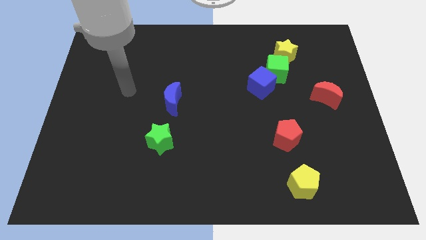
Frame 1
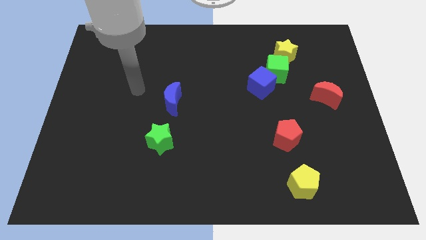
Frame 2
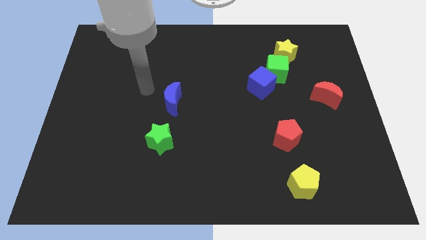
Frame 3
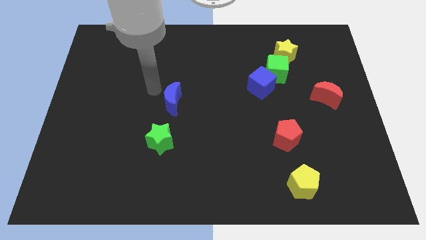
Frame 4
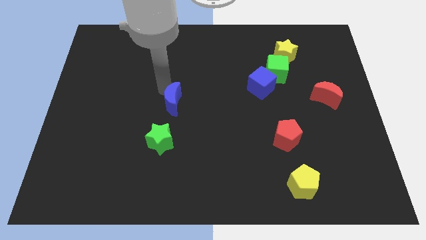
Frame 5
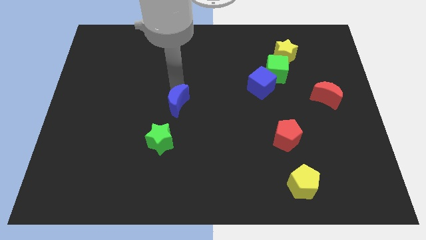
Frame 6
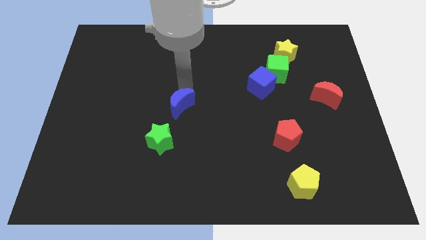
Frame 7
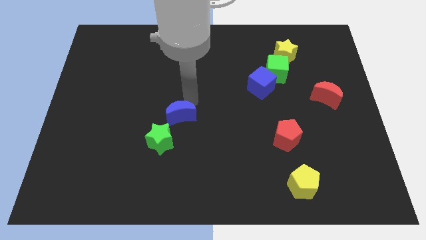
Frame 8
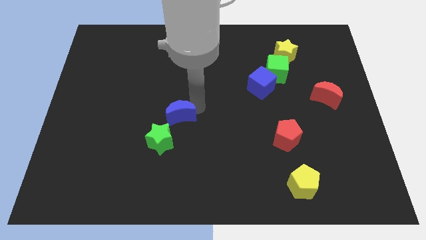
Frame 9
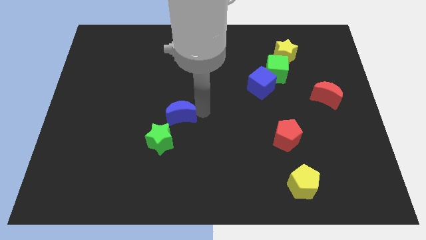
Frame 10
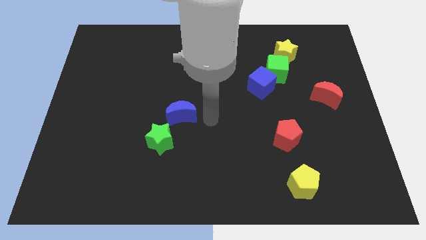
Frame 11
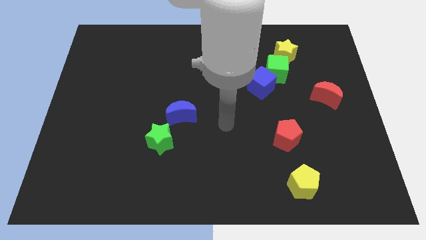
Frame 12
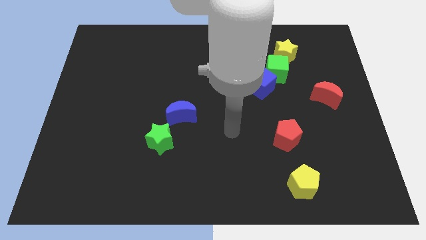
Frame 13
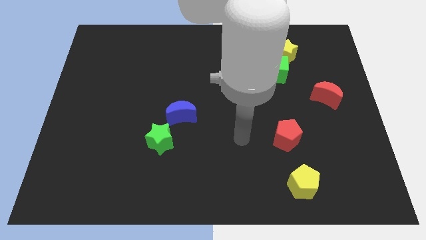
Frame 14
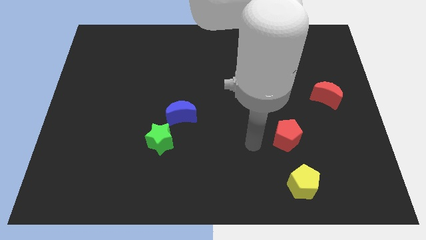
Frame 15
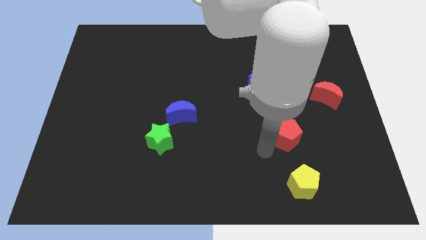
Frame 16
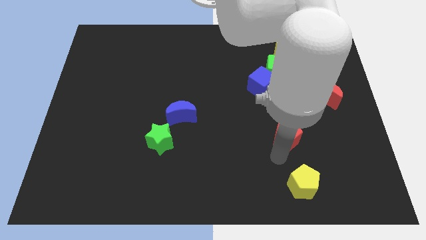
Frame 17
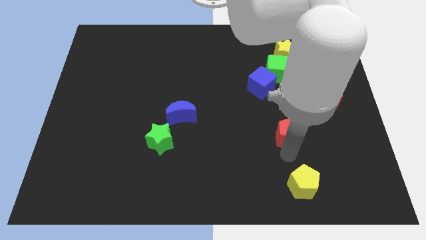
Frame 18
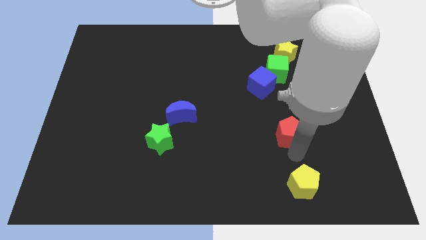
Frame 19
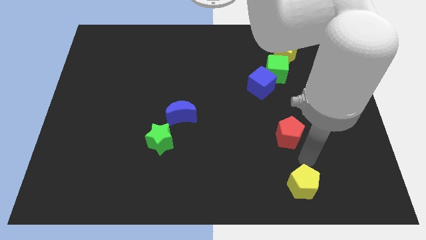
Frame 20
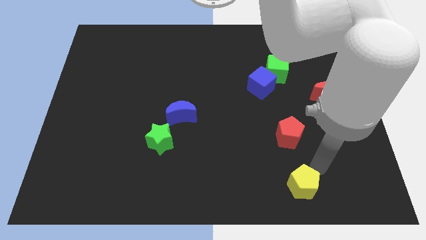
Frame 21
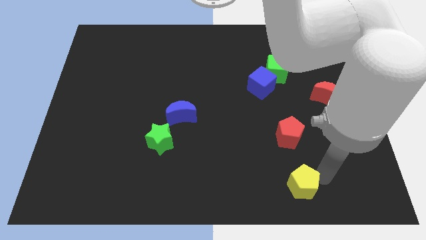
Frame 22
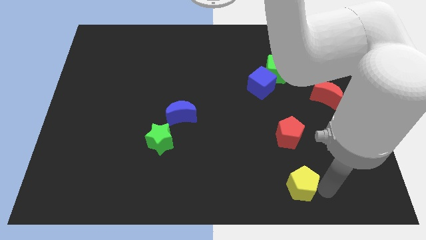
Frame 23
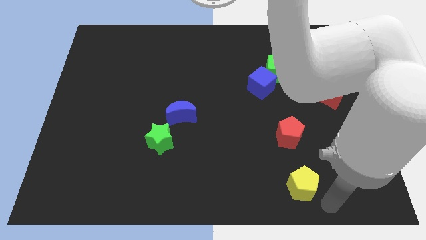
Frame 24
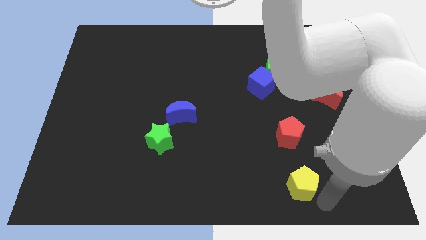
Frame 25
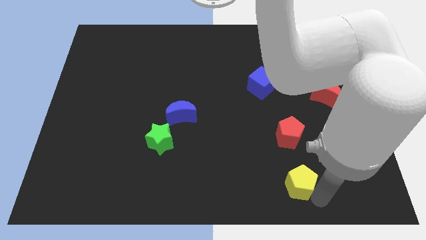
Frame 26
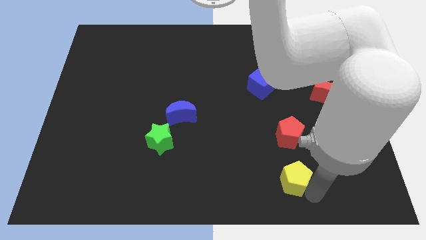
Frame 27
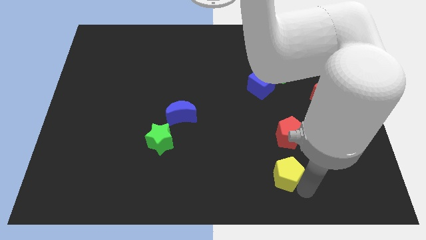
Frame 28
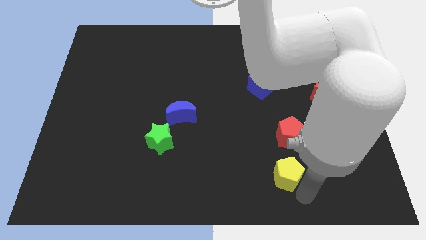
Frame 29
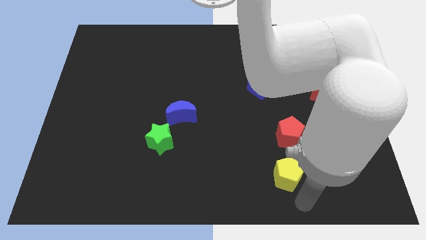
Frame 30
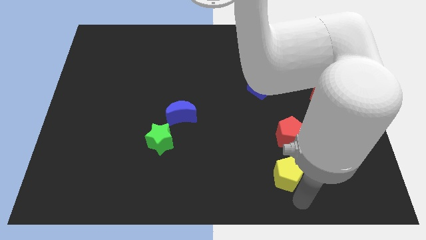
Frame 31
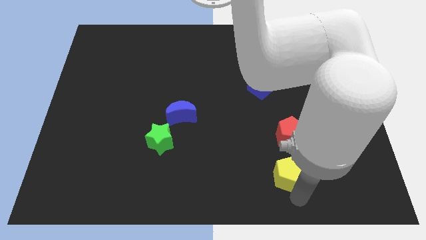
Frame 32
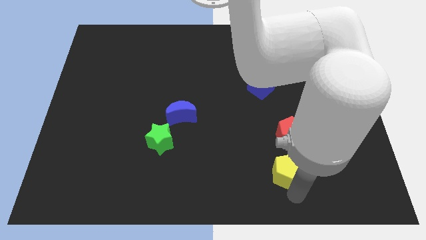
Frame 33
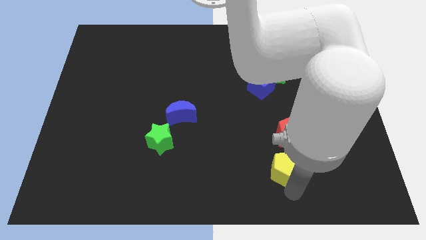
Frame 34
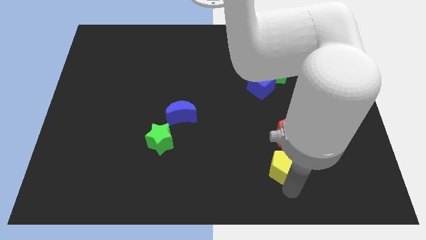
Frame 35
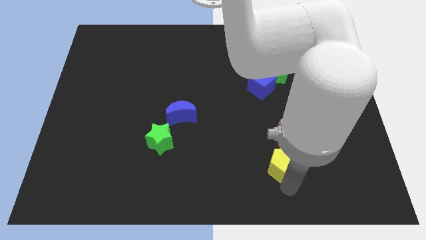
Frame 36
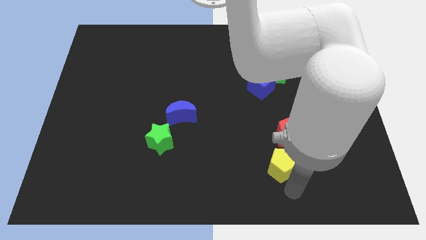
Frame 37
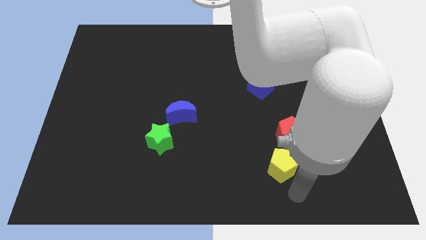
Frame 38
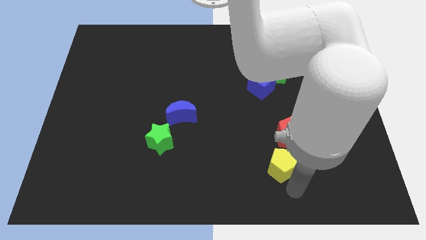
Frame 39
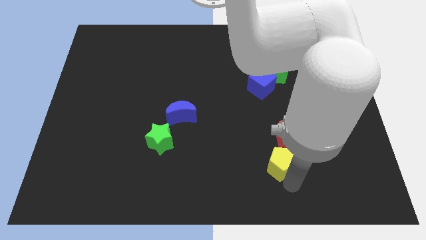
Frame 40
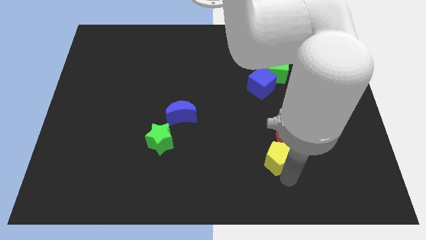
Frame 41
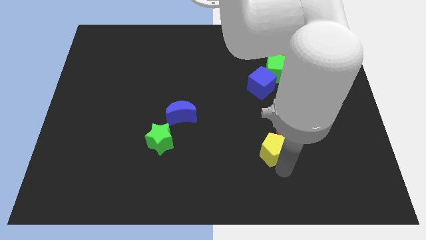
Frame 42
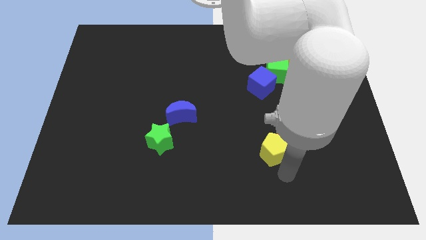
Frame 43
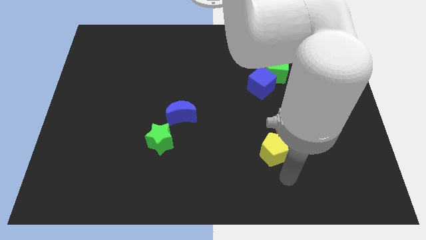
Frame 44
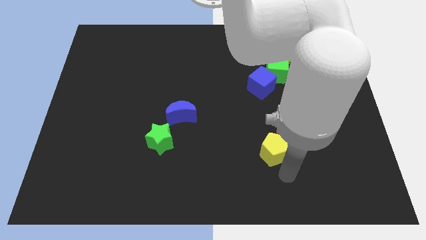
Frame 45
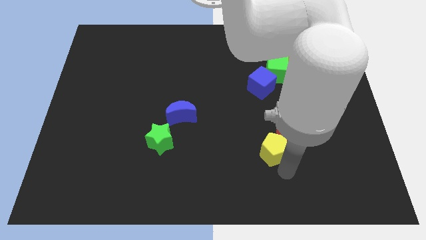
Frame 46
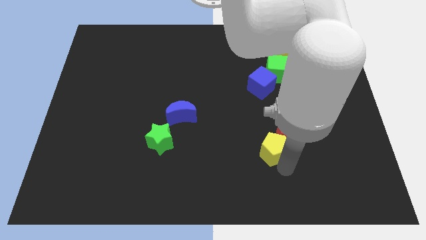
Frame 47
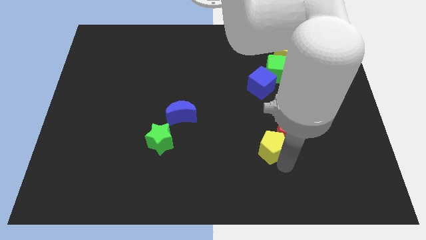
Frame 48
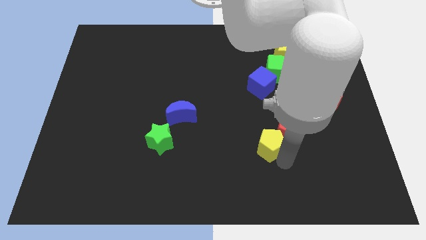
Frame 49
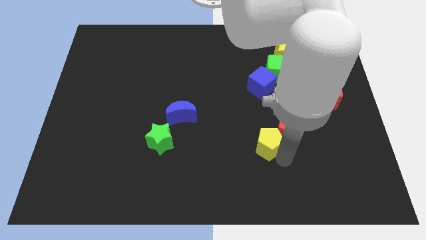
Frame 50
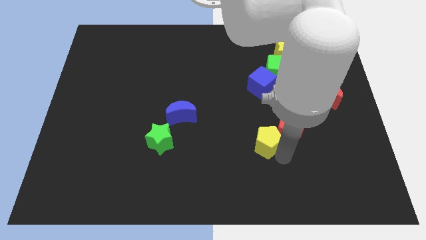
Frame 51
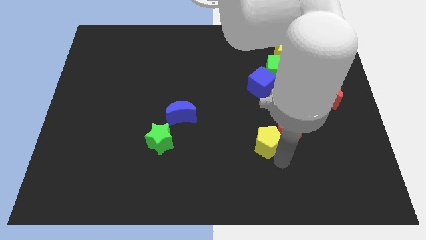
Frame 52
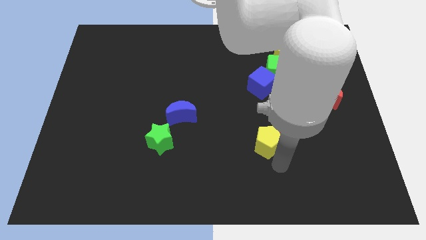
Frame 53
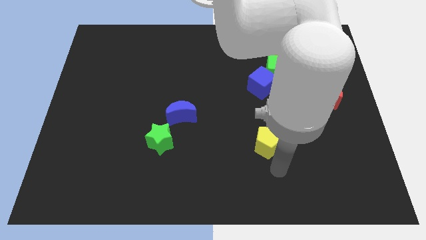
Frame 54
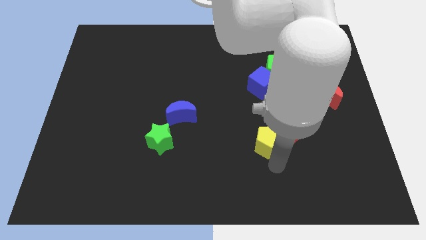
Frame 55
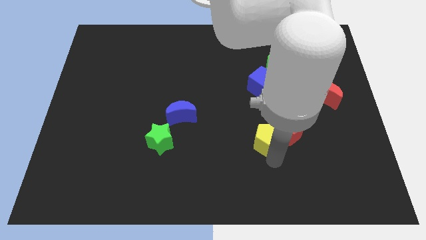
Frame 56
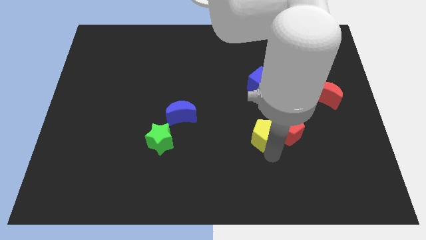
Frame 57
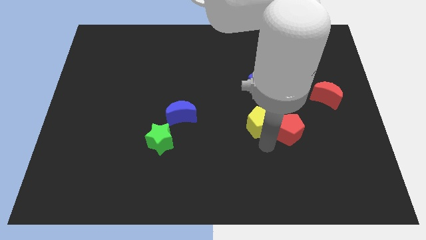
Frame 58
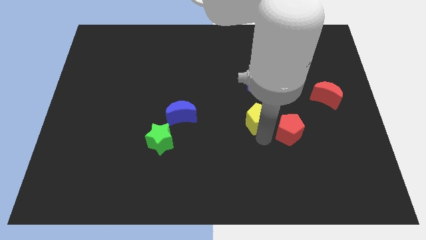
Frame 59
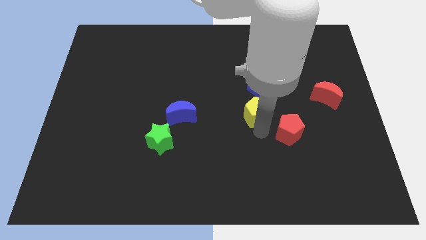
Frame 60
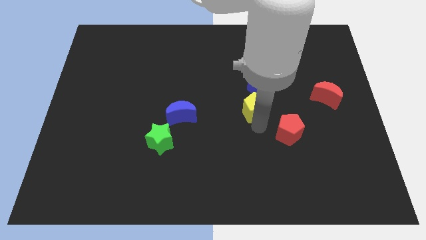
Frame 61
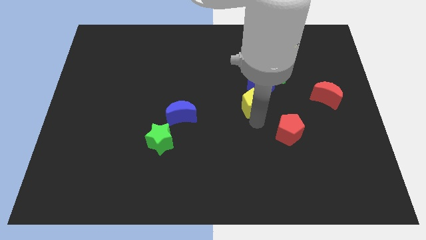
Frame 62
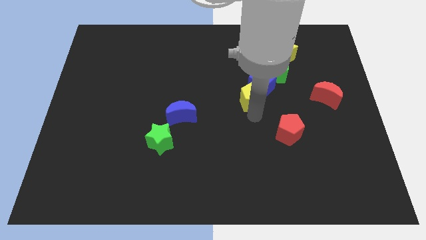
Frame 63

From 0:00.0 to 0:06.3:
push the yellow pentagon next to the blue cube

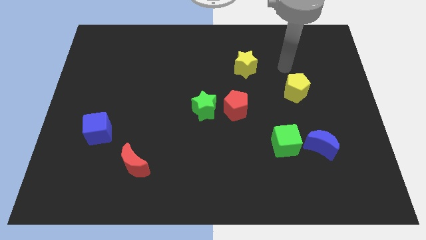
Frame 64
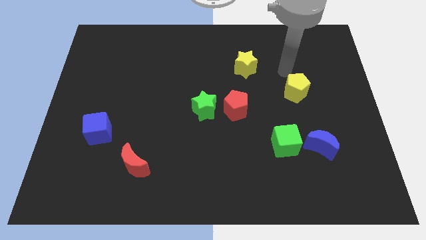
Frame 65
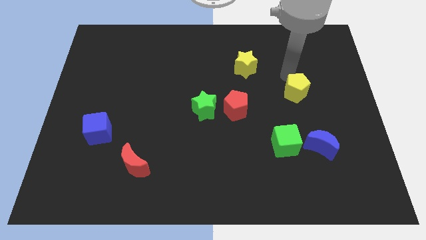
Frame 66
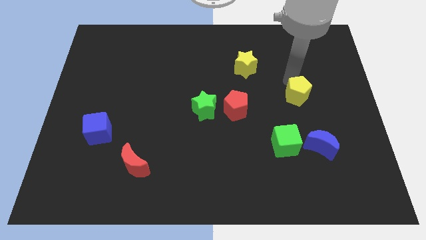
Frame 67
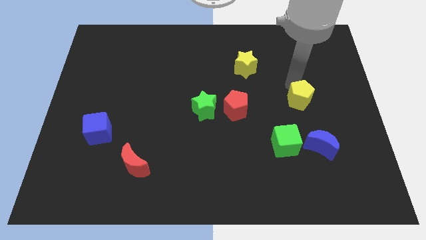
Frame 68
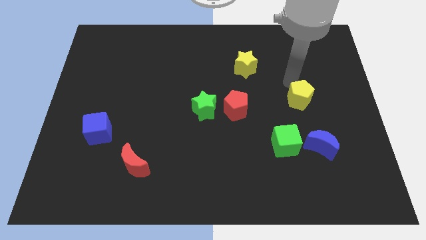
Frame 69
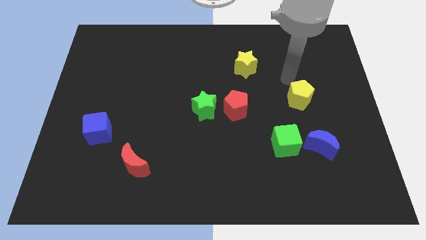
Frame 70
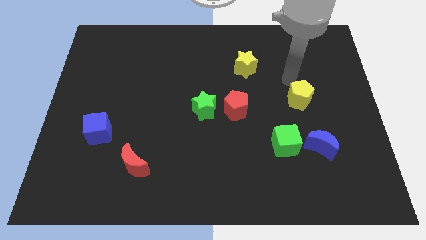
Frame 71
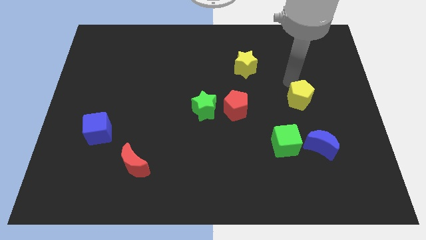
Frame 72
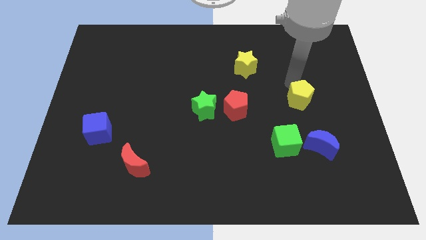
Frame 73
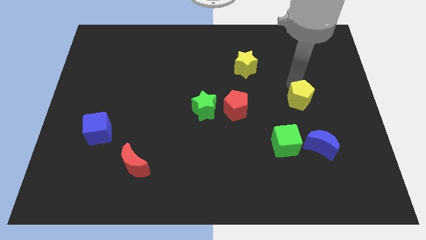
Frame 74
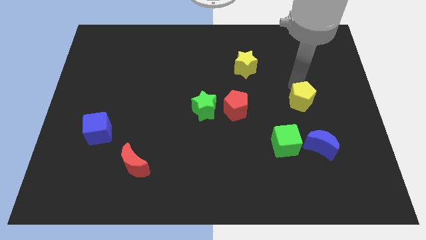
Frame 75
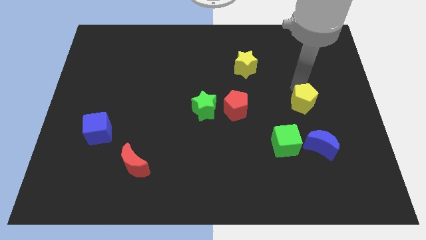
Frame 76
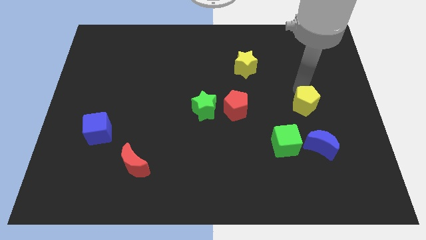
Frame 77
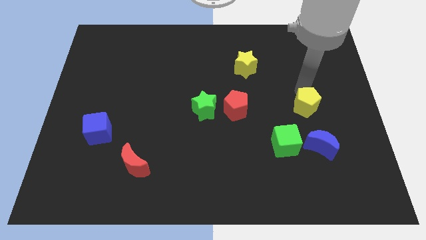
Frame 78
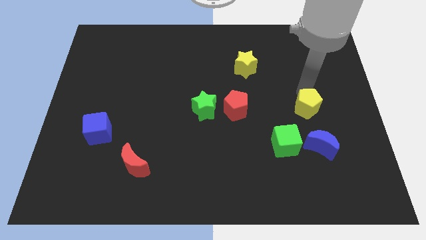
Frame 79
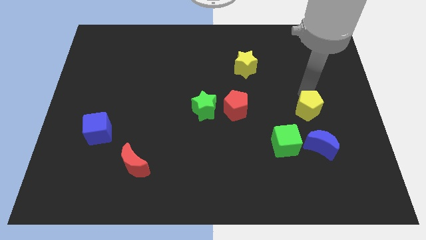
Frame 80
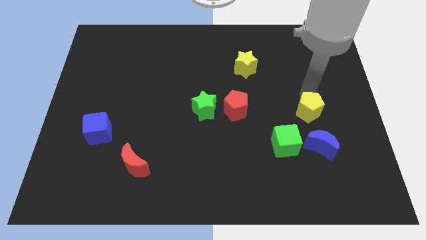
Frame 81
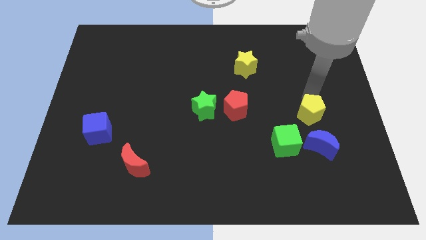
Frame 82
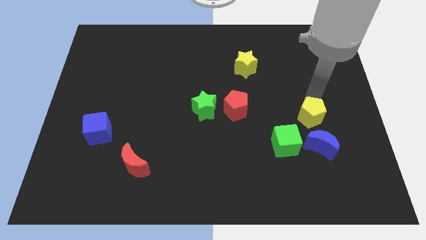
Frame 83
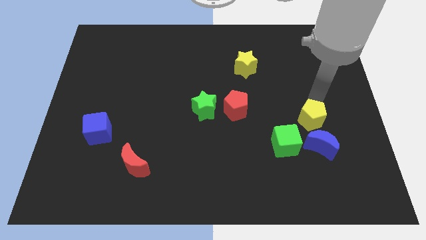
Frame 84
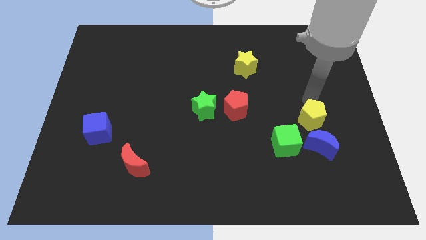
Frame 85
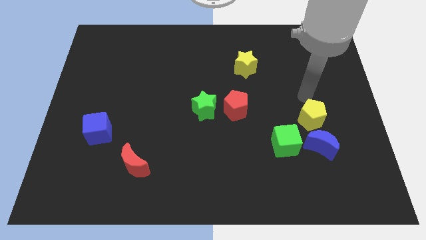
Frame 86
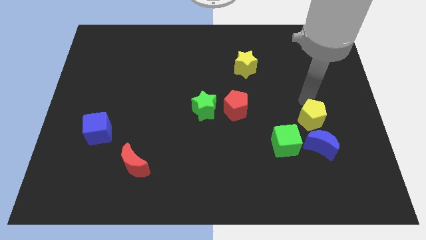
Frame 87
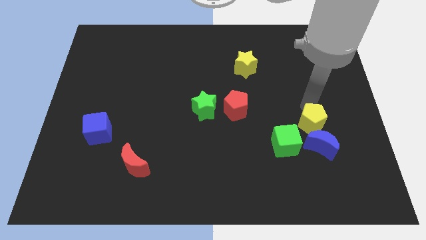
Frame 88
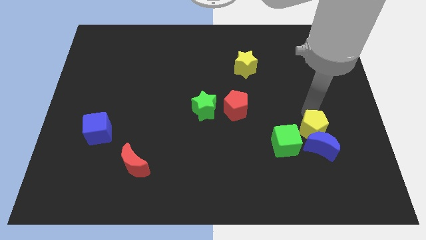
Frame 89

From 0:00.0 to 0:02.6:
move the yellow pentagon towards the blue moon
